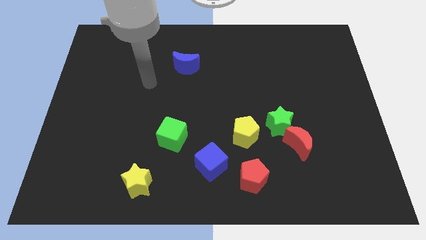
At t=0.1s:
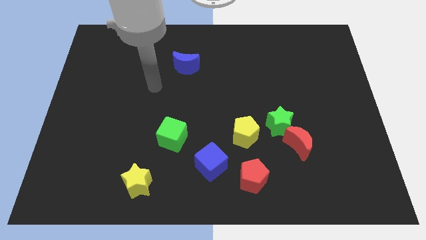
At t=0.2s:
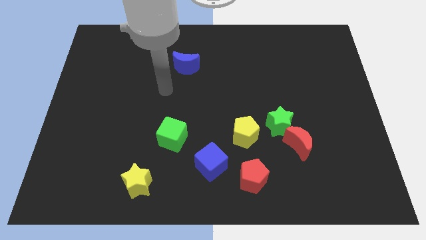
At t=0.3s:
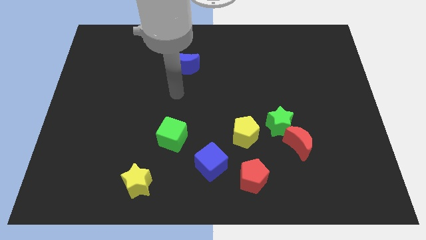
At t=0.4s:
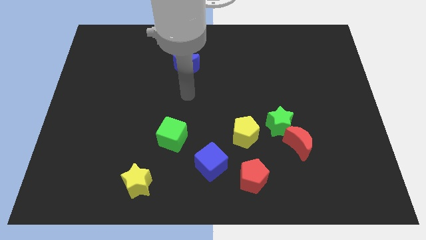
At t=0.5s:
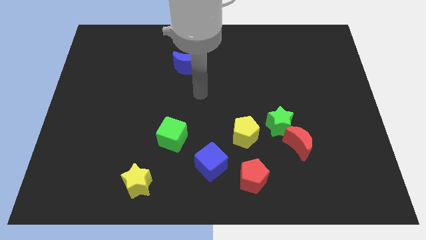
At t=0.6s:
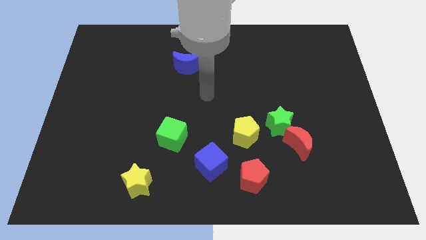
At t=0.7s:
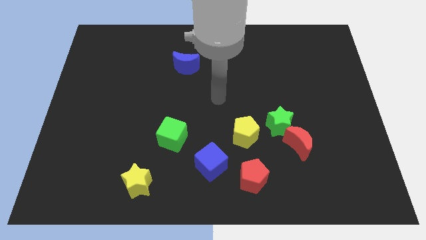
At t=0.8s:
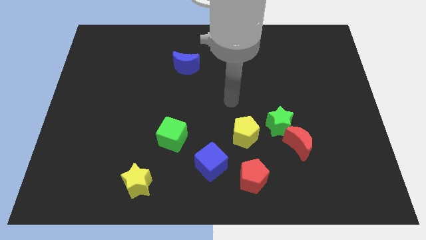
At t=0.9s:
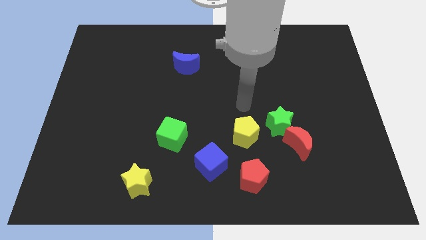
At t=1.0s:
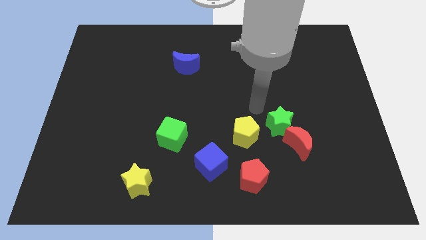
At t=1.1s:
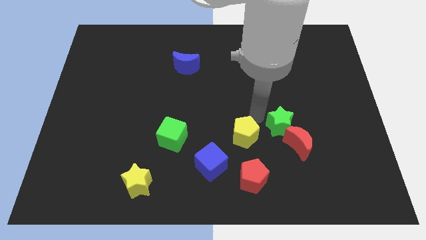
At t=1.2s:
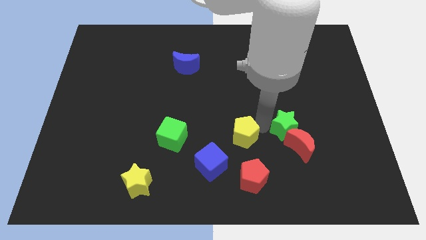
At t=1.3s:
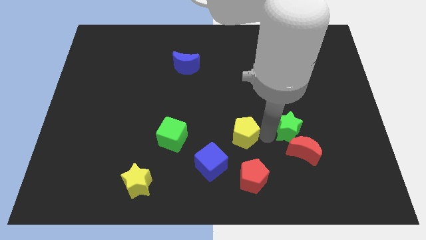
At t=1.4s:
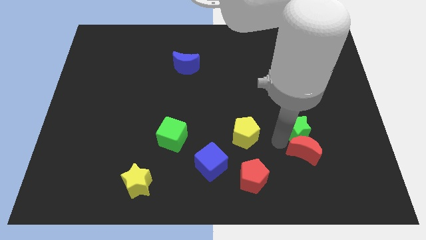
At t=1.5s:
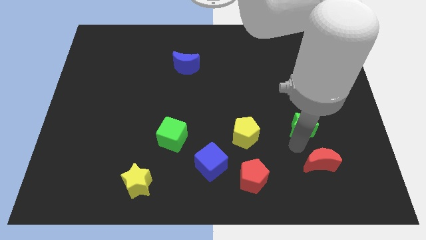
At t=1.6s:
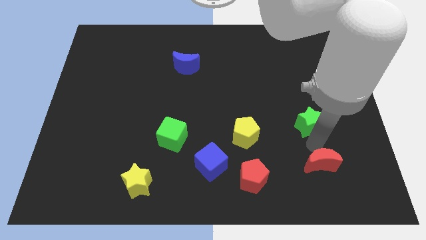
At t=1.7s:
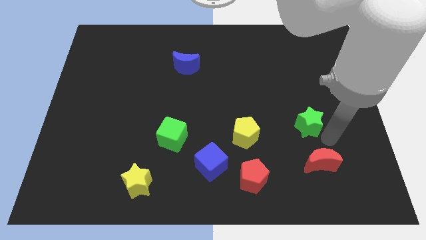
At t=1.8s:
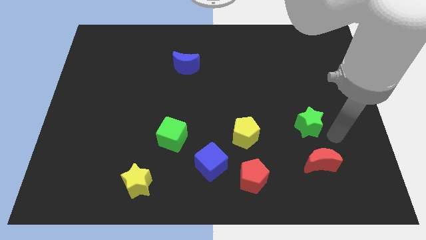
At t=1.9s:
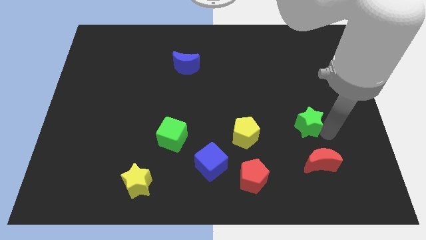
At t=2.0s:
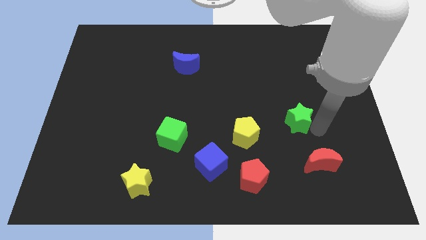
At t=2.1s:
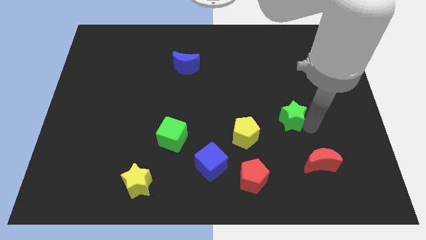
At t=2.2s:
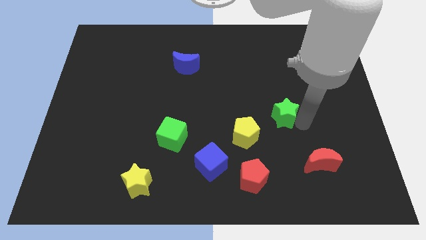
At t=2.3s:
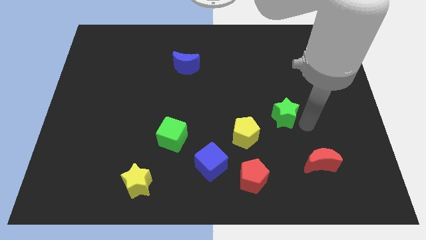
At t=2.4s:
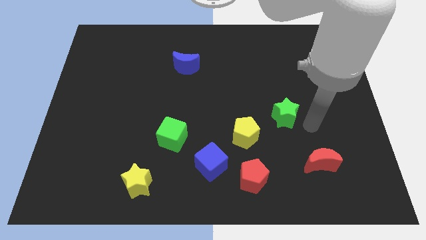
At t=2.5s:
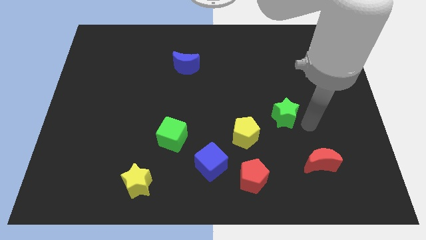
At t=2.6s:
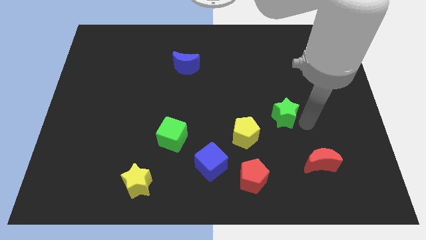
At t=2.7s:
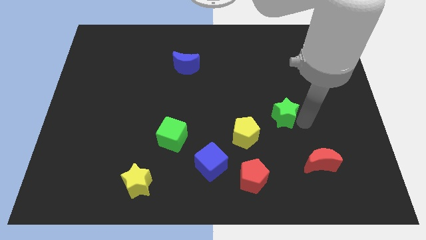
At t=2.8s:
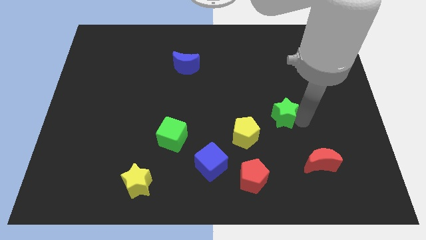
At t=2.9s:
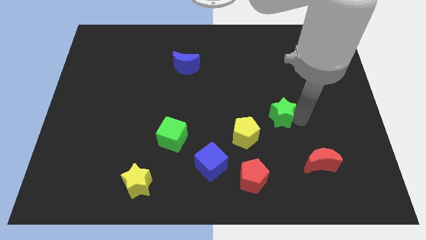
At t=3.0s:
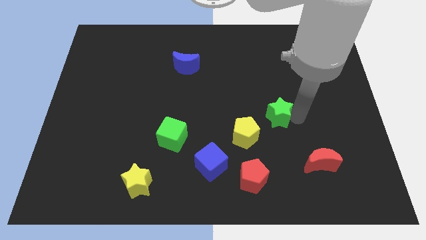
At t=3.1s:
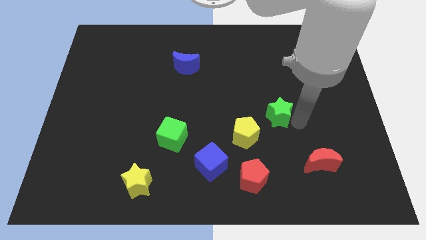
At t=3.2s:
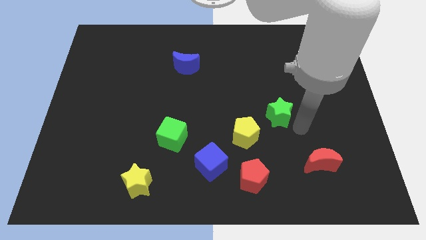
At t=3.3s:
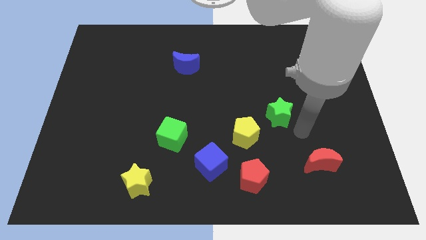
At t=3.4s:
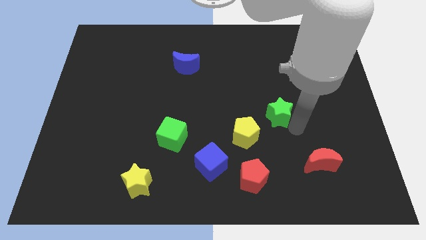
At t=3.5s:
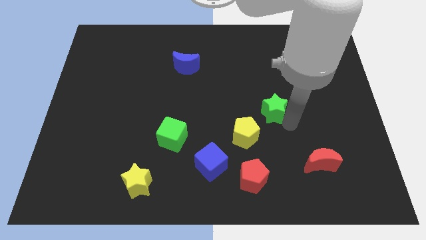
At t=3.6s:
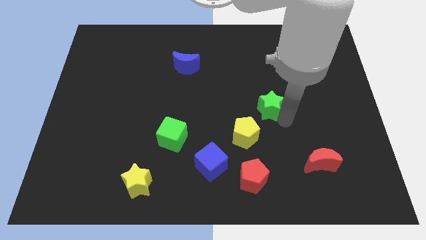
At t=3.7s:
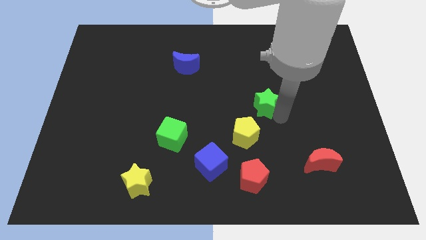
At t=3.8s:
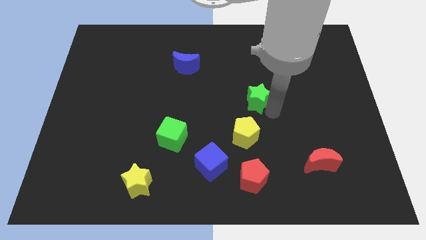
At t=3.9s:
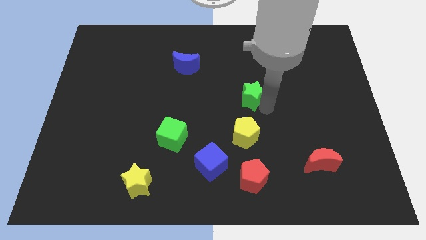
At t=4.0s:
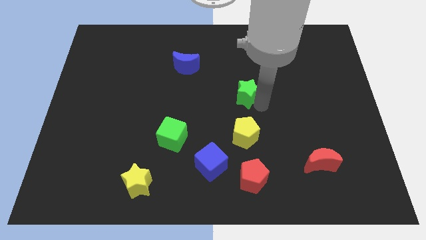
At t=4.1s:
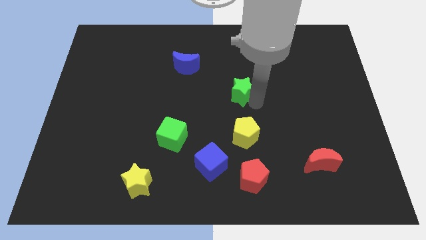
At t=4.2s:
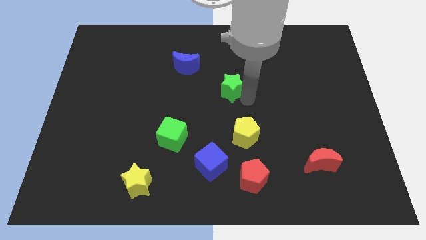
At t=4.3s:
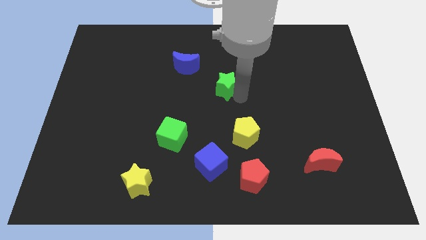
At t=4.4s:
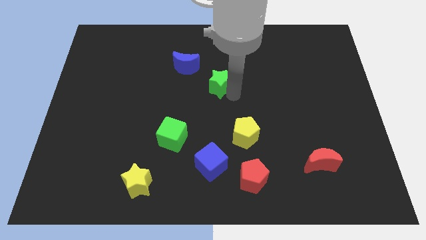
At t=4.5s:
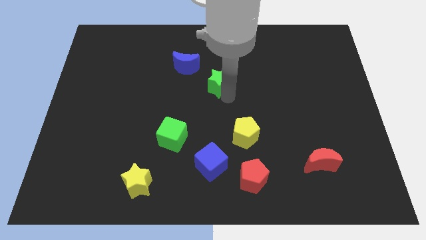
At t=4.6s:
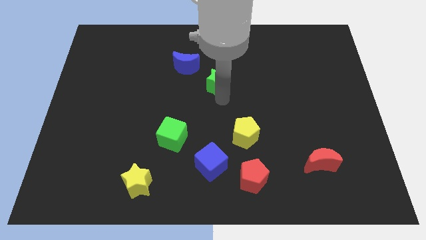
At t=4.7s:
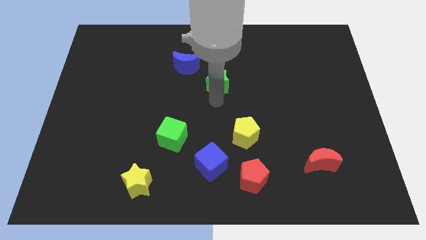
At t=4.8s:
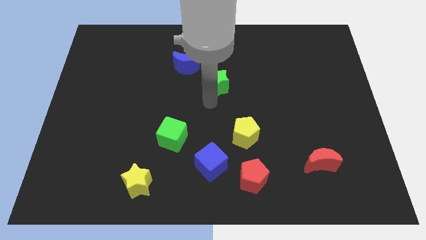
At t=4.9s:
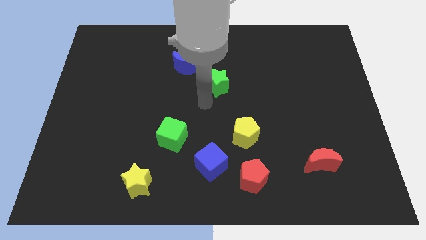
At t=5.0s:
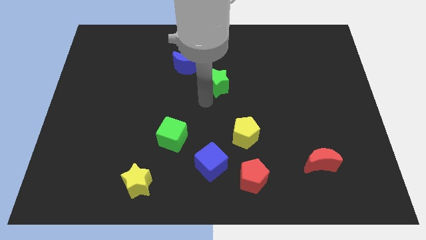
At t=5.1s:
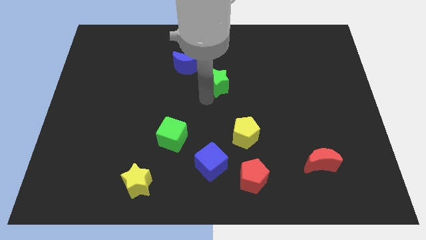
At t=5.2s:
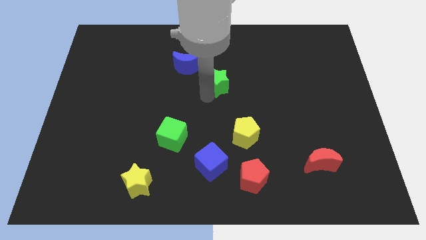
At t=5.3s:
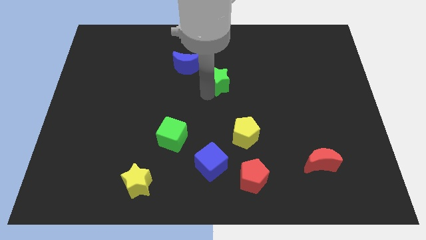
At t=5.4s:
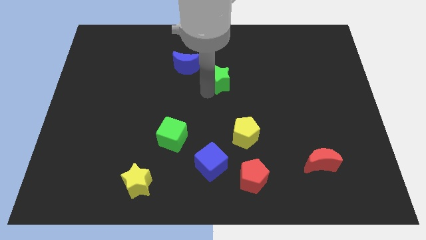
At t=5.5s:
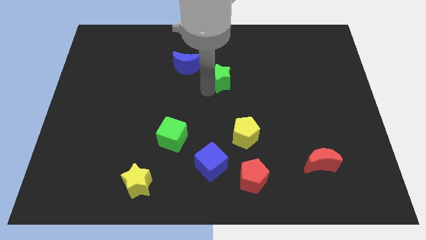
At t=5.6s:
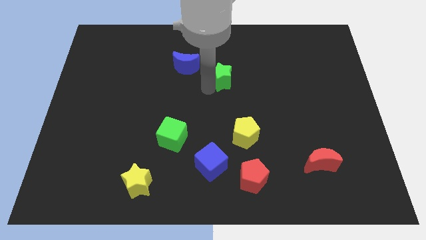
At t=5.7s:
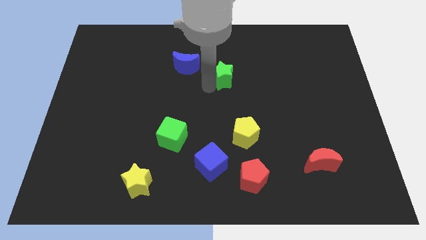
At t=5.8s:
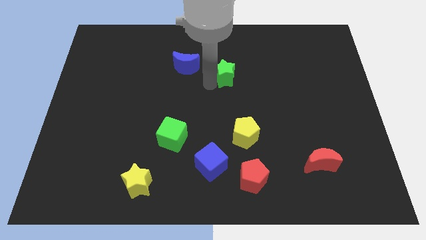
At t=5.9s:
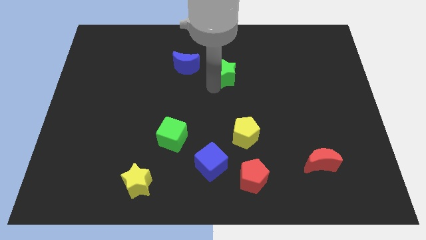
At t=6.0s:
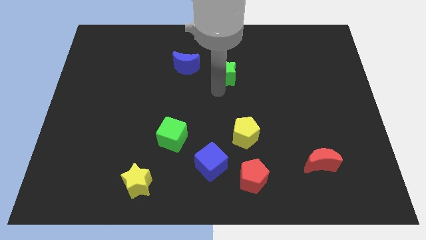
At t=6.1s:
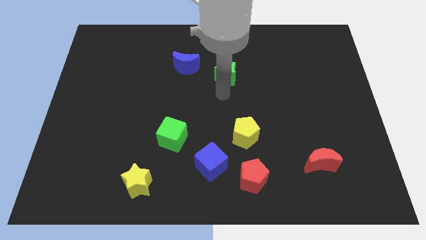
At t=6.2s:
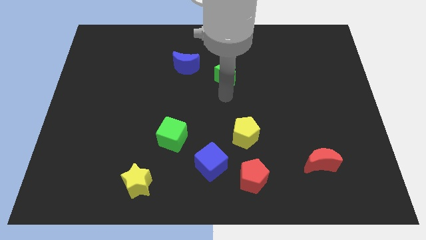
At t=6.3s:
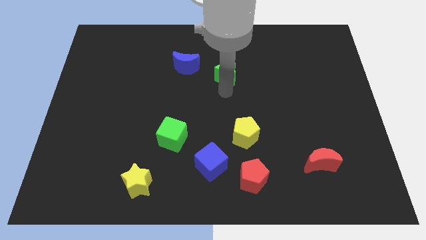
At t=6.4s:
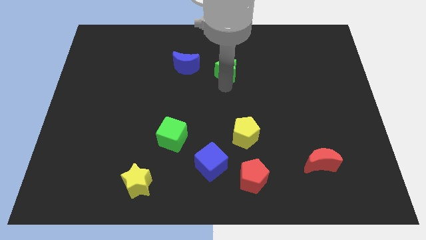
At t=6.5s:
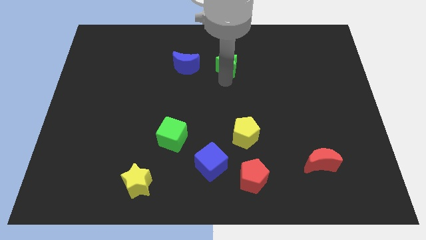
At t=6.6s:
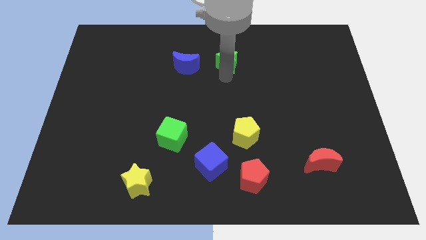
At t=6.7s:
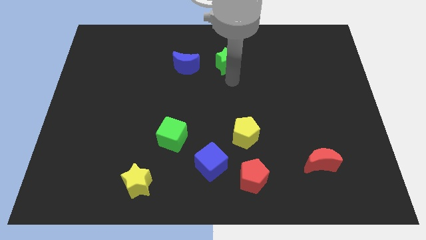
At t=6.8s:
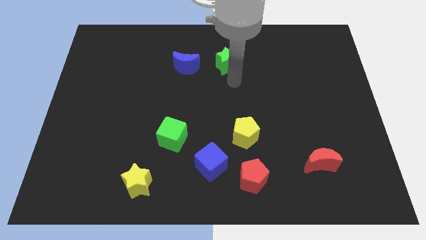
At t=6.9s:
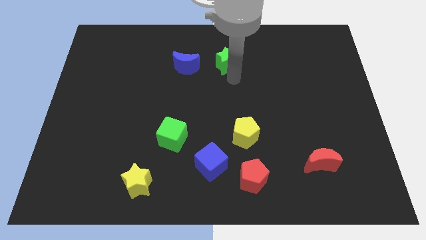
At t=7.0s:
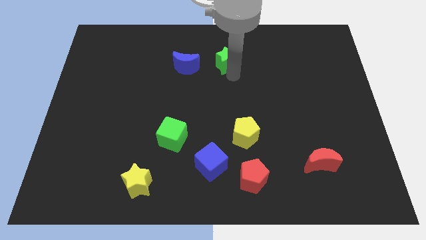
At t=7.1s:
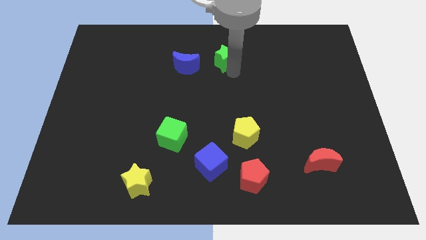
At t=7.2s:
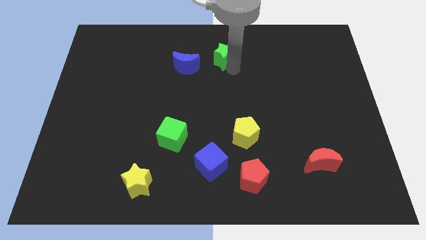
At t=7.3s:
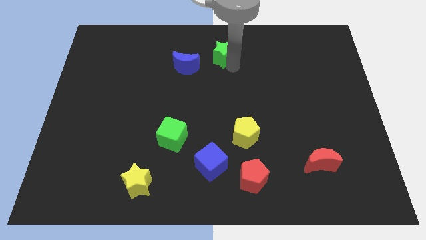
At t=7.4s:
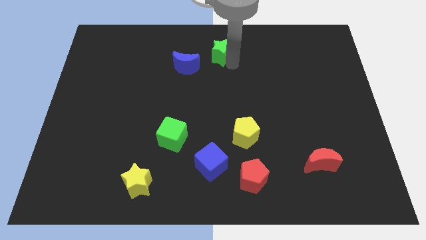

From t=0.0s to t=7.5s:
slide the green star to the towards your base
